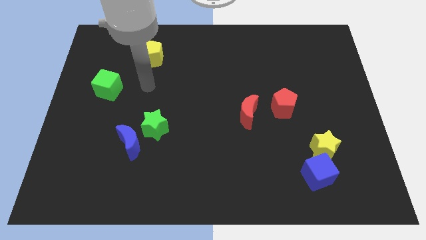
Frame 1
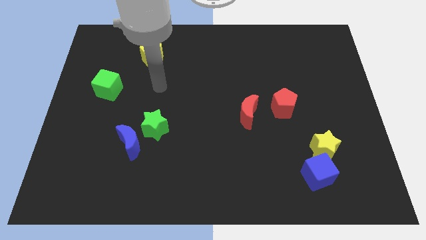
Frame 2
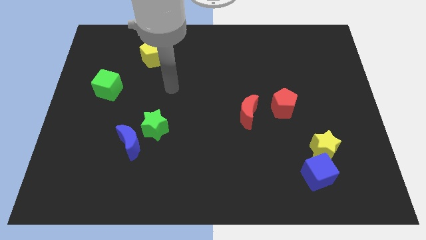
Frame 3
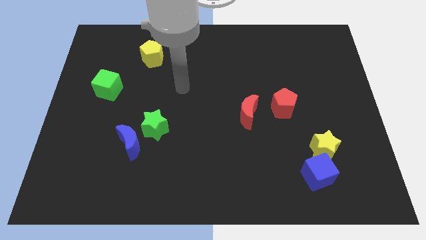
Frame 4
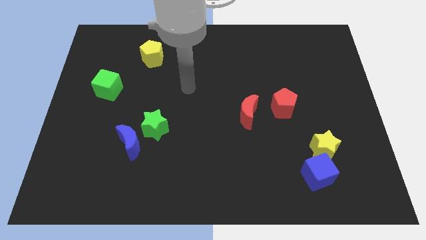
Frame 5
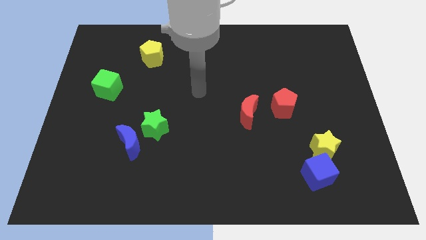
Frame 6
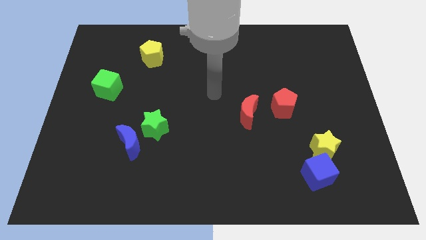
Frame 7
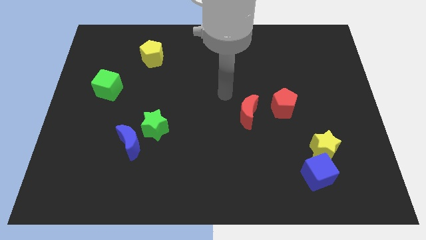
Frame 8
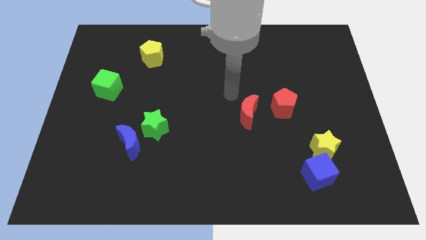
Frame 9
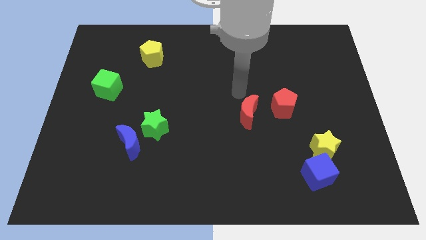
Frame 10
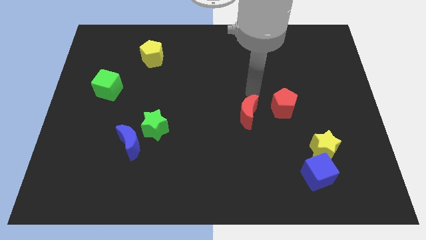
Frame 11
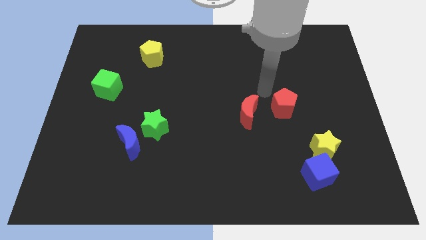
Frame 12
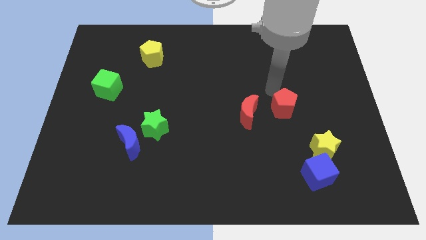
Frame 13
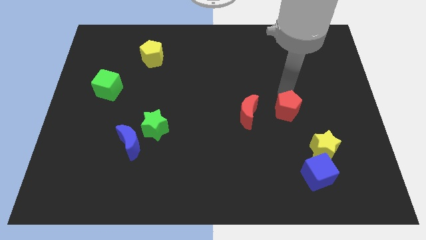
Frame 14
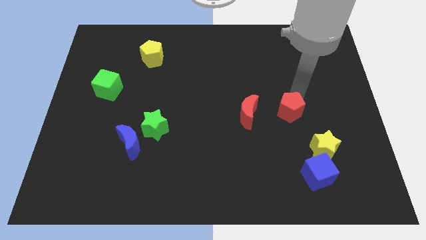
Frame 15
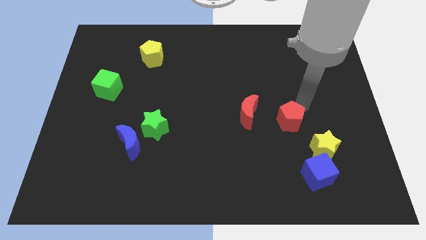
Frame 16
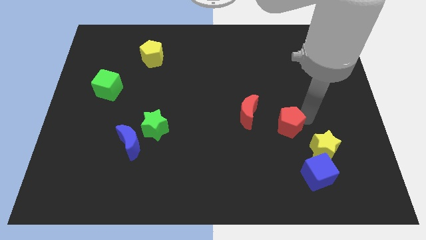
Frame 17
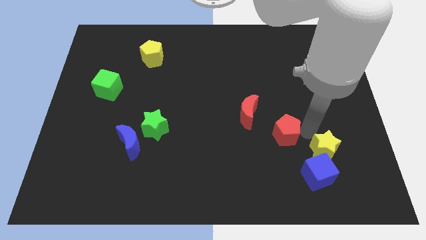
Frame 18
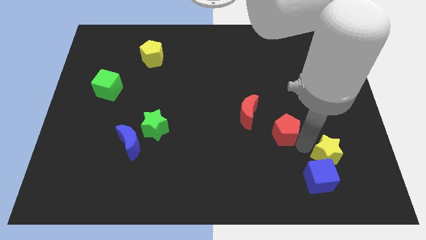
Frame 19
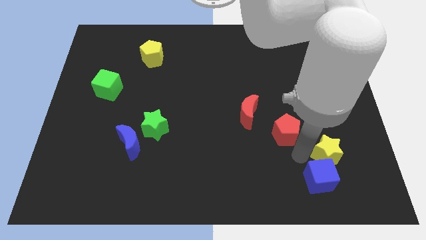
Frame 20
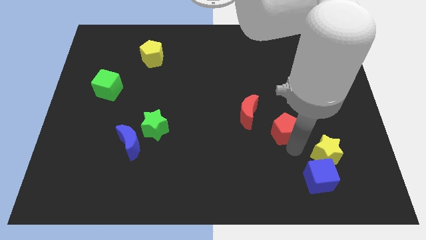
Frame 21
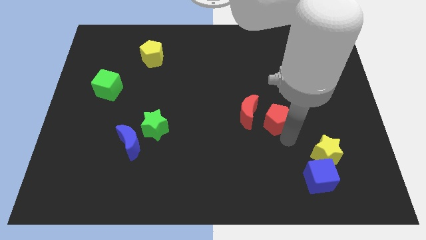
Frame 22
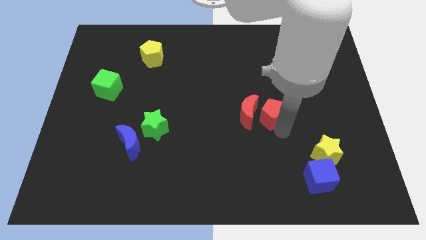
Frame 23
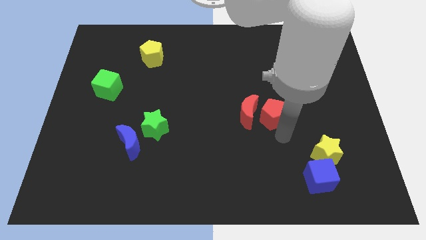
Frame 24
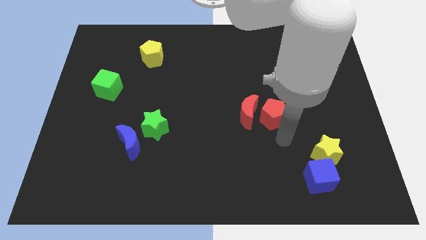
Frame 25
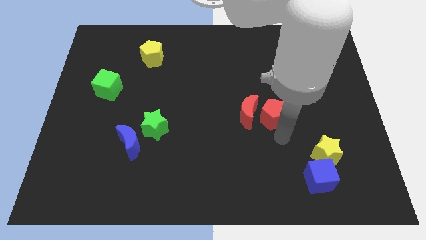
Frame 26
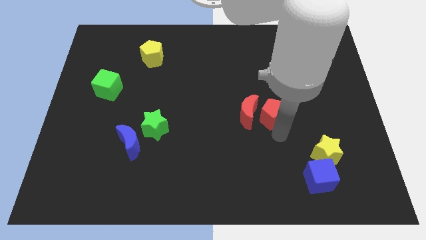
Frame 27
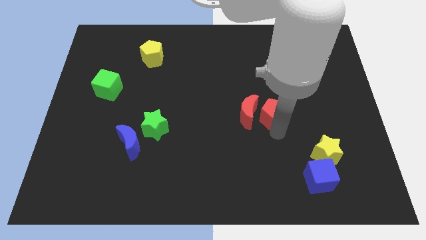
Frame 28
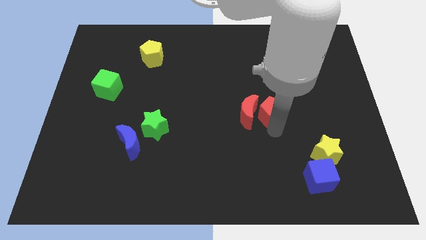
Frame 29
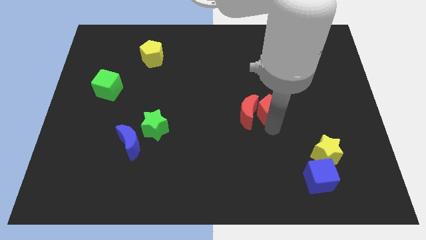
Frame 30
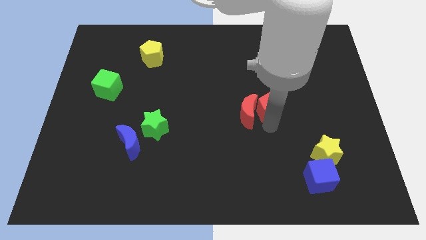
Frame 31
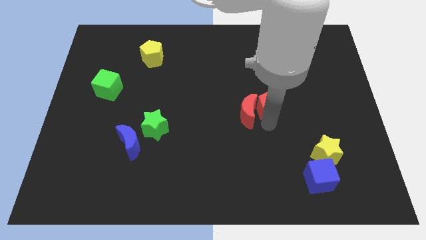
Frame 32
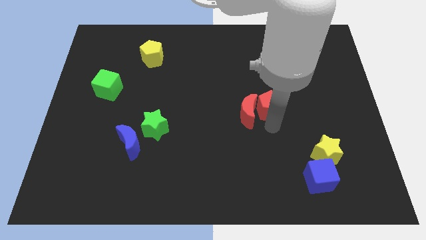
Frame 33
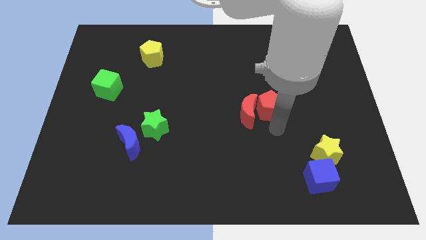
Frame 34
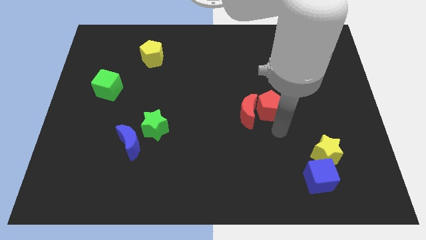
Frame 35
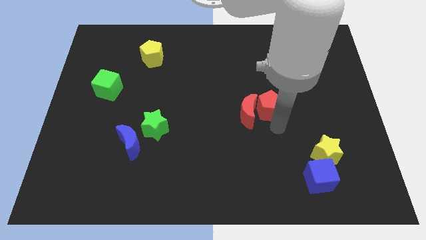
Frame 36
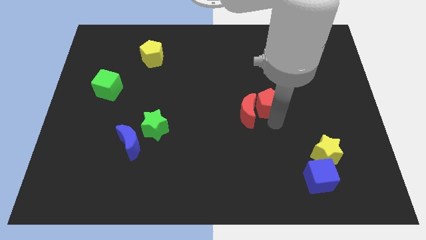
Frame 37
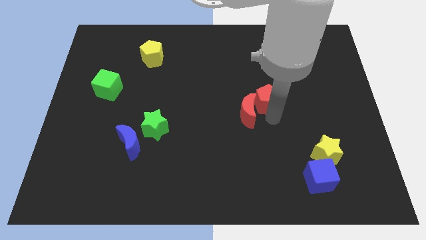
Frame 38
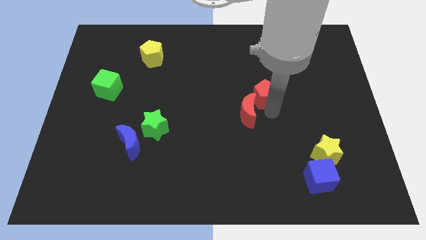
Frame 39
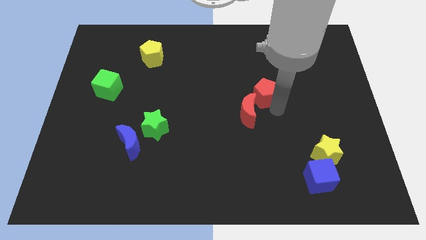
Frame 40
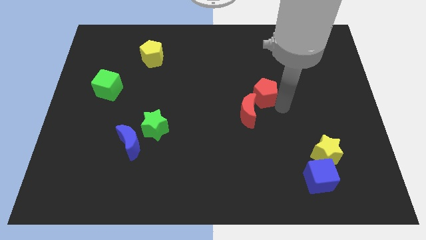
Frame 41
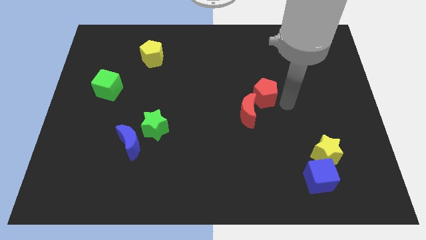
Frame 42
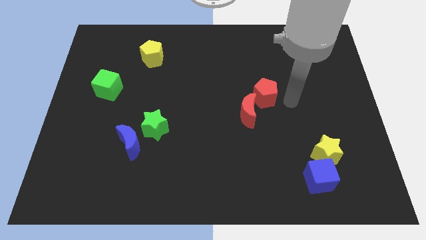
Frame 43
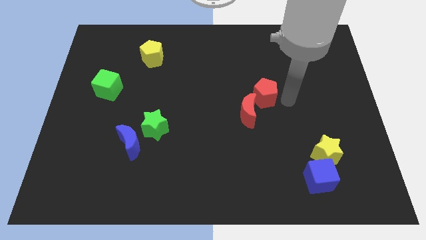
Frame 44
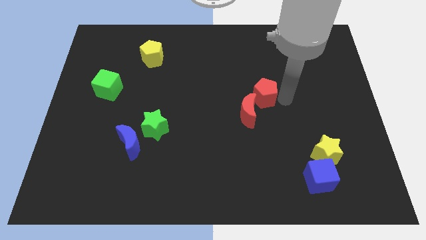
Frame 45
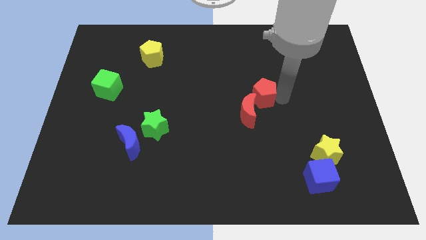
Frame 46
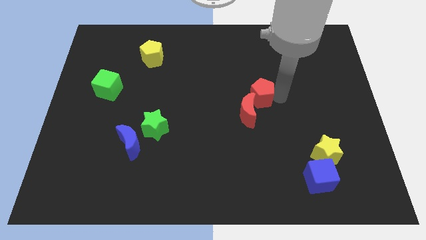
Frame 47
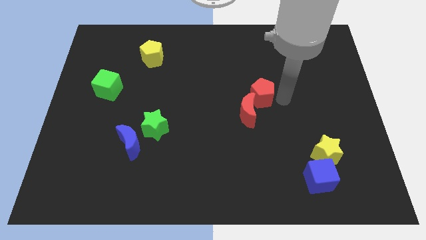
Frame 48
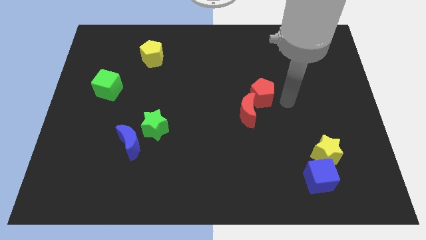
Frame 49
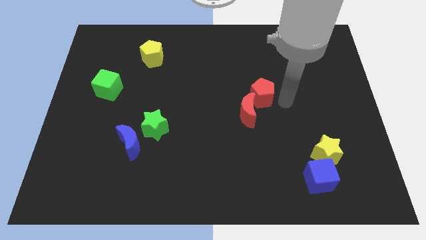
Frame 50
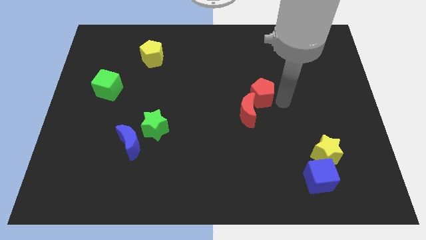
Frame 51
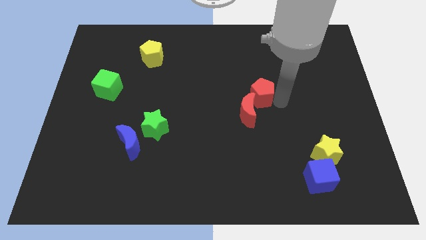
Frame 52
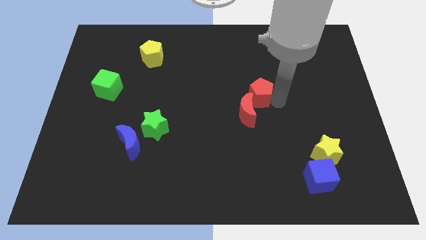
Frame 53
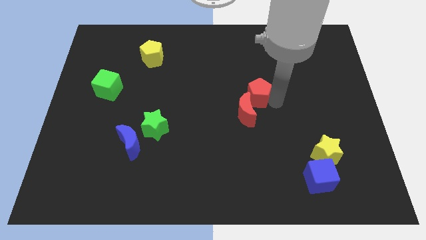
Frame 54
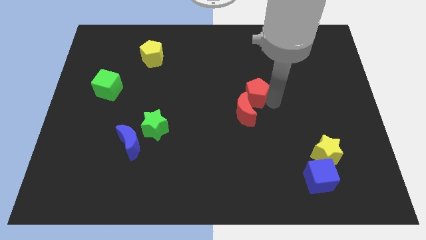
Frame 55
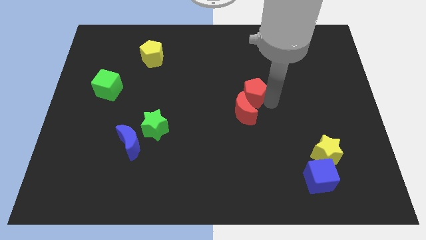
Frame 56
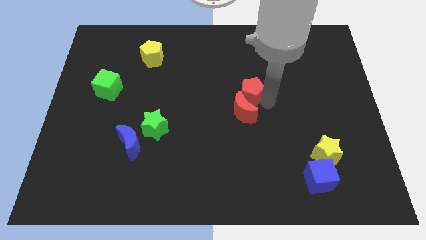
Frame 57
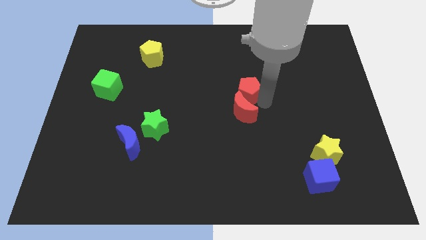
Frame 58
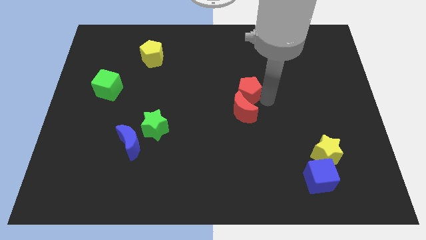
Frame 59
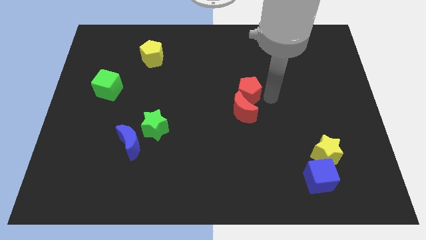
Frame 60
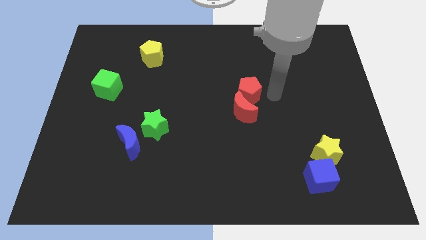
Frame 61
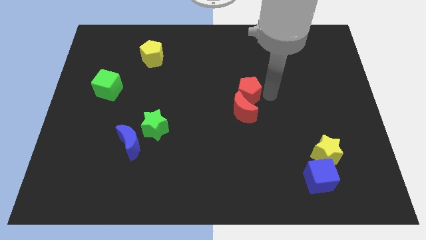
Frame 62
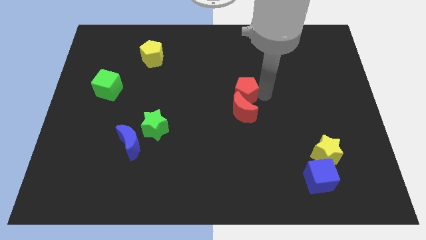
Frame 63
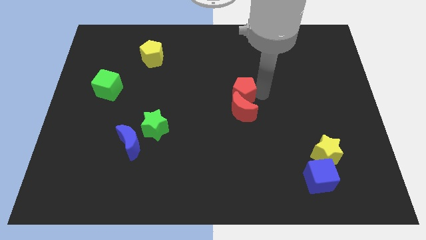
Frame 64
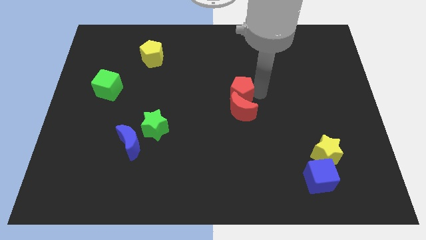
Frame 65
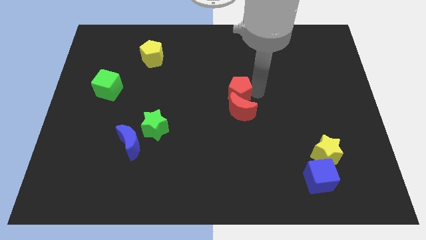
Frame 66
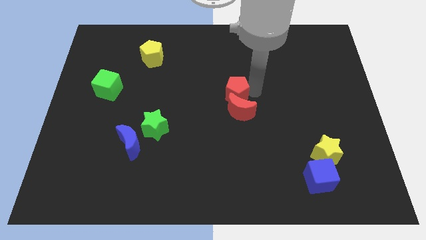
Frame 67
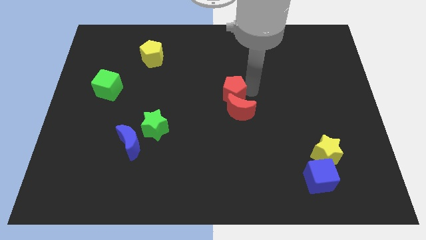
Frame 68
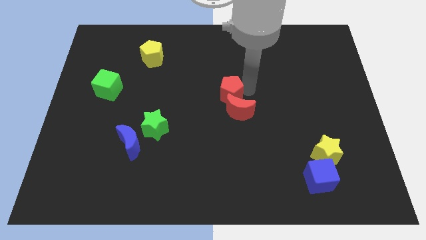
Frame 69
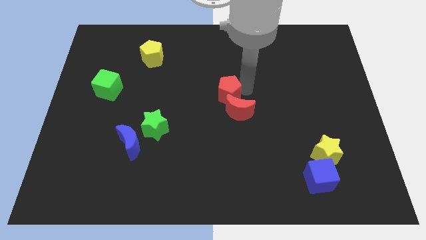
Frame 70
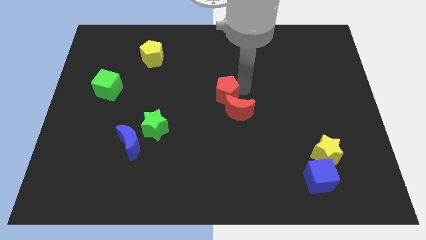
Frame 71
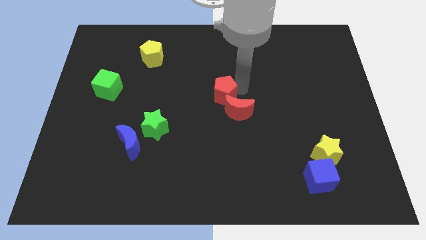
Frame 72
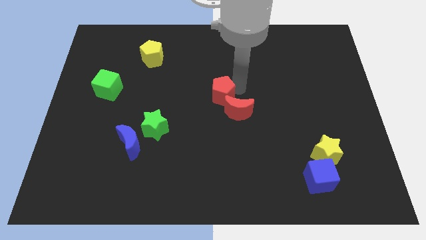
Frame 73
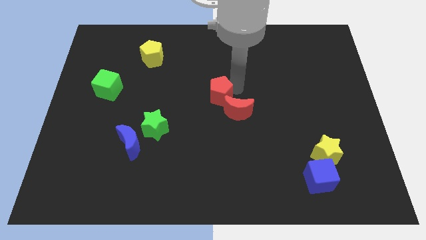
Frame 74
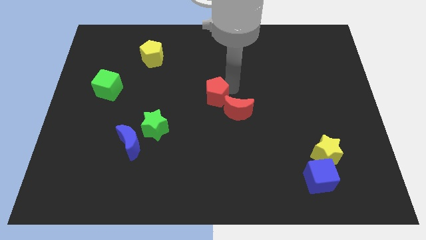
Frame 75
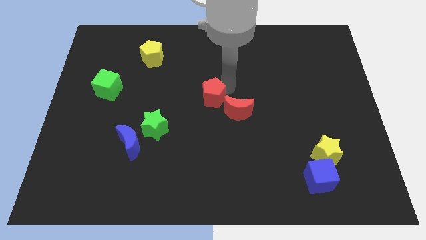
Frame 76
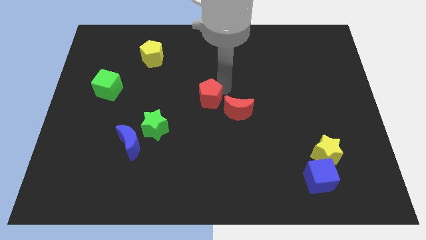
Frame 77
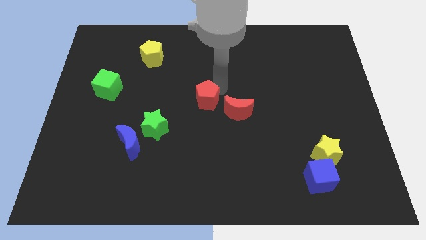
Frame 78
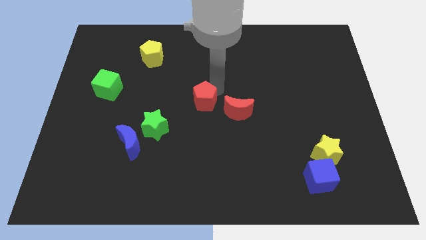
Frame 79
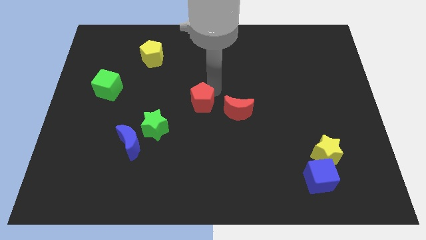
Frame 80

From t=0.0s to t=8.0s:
move the red pentagon diagonally up and to the right of the green star
